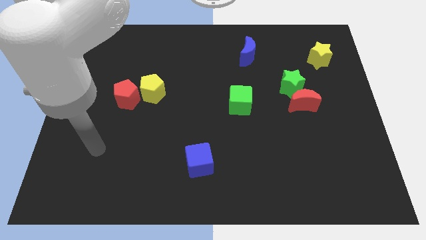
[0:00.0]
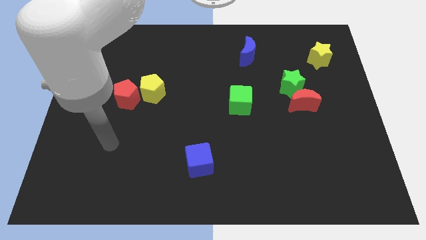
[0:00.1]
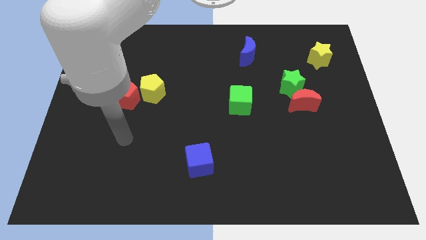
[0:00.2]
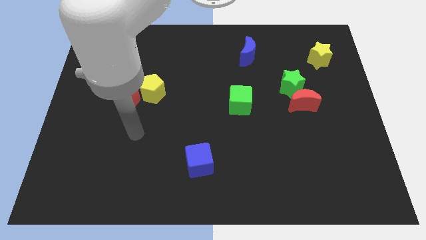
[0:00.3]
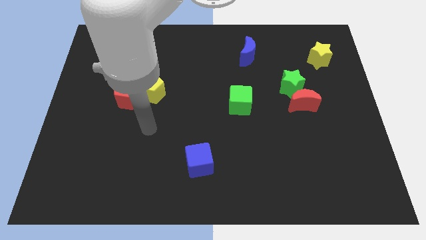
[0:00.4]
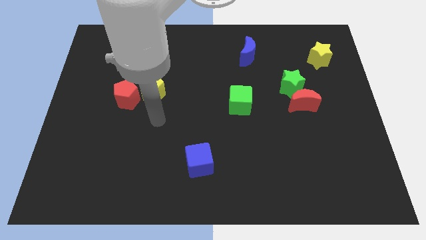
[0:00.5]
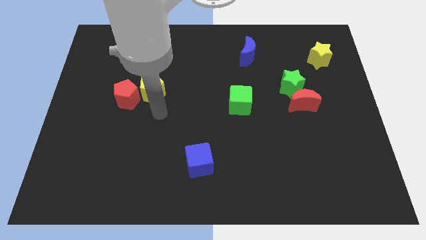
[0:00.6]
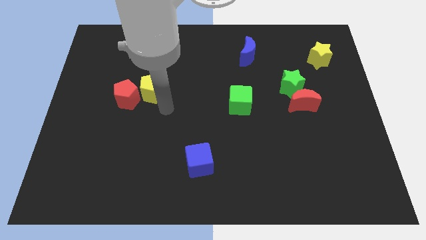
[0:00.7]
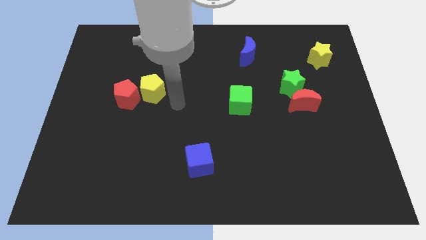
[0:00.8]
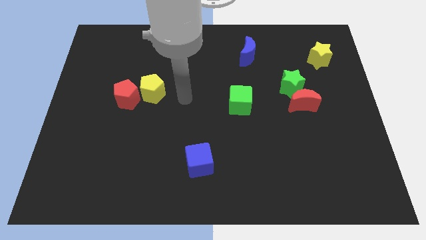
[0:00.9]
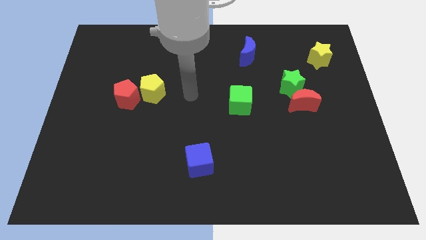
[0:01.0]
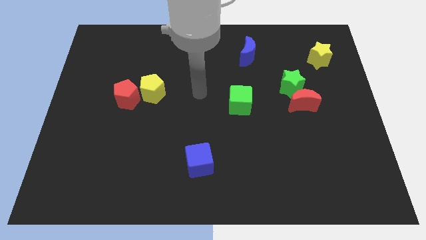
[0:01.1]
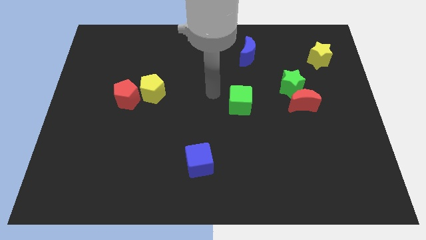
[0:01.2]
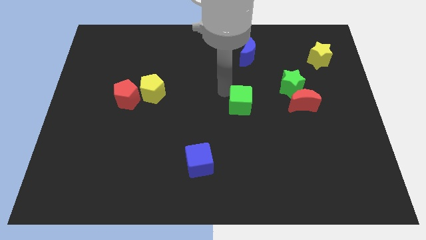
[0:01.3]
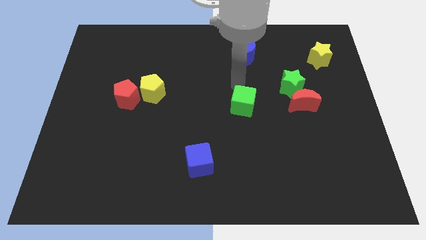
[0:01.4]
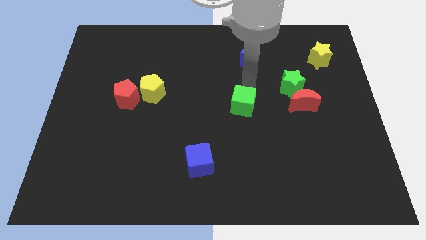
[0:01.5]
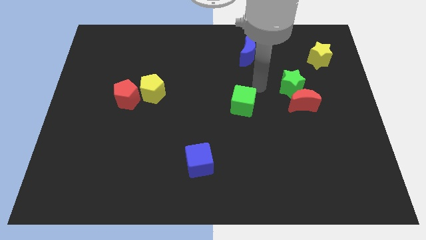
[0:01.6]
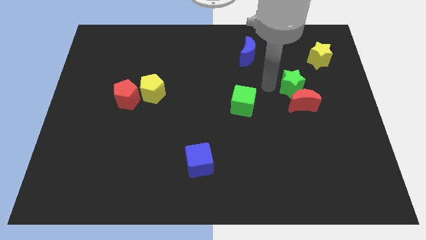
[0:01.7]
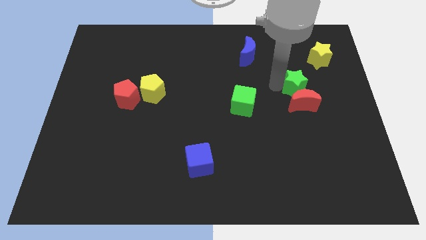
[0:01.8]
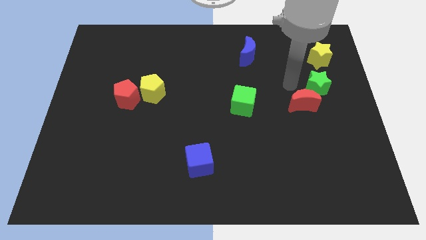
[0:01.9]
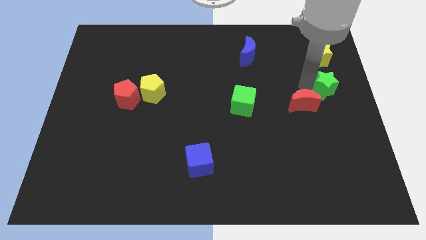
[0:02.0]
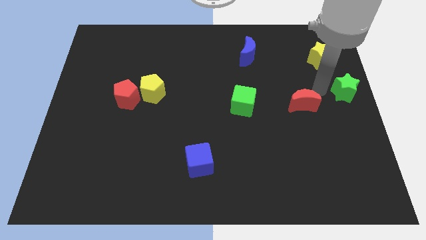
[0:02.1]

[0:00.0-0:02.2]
pull the red moon apart from the green star

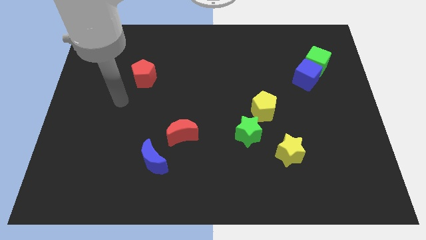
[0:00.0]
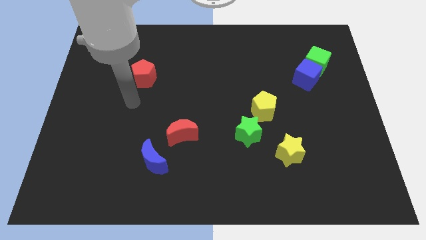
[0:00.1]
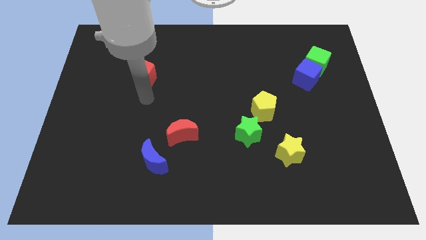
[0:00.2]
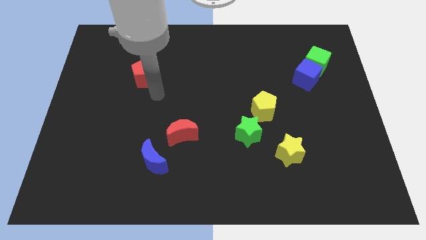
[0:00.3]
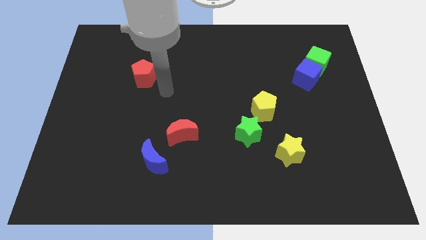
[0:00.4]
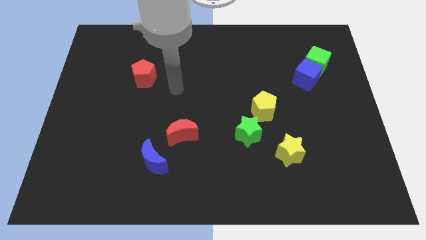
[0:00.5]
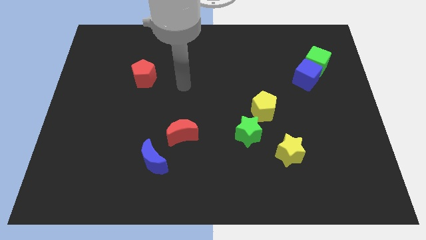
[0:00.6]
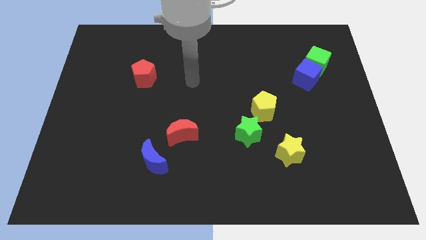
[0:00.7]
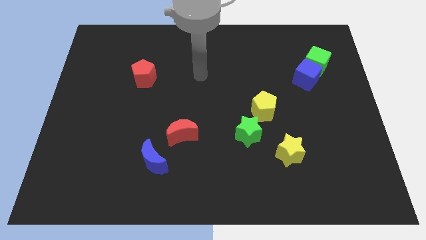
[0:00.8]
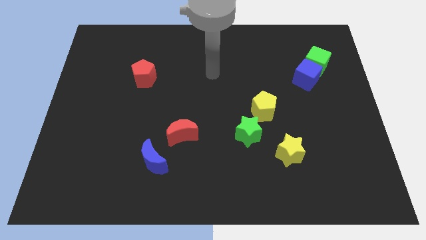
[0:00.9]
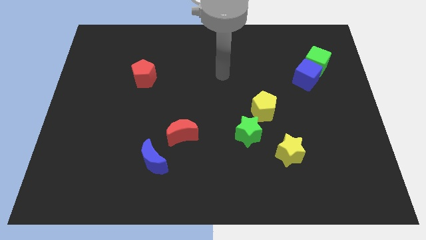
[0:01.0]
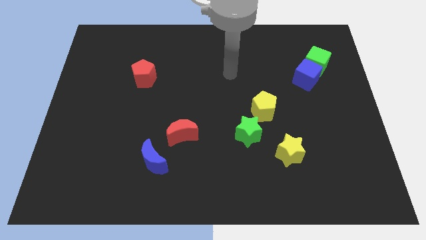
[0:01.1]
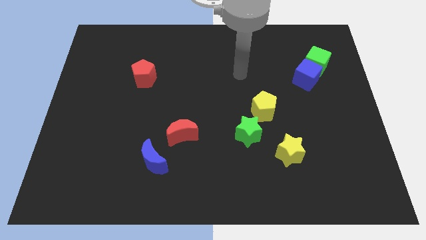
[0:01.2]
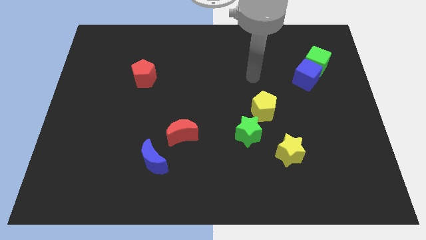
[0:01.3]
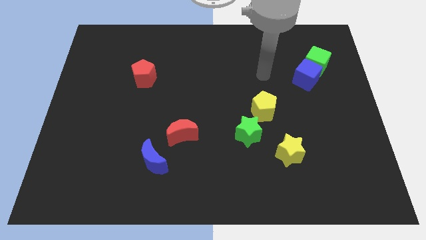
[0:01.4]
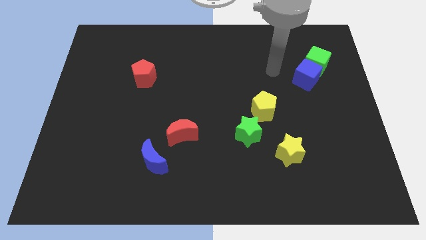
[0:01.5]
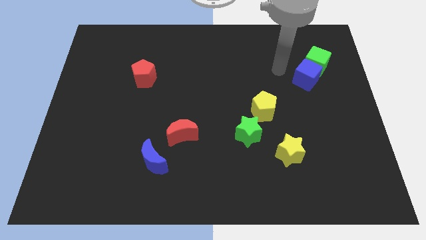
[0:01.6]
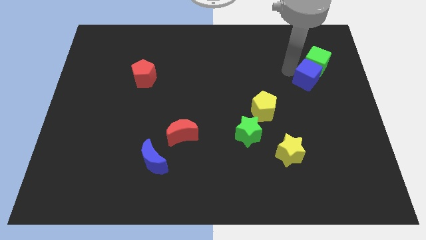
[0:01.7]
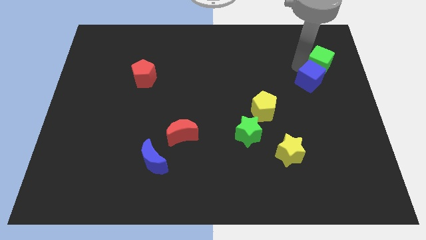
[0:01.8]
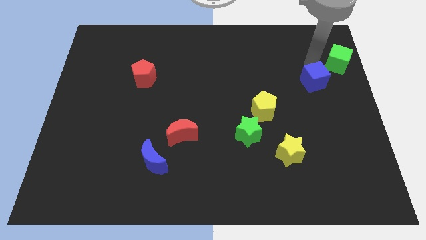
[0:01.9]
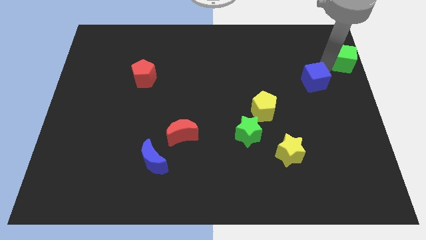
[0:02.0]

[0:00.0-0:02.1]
move the blue cube away from the green cube

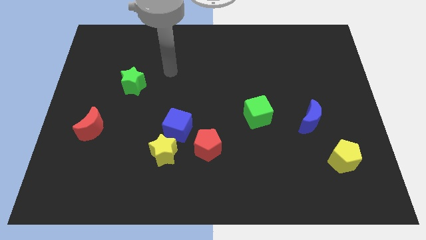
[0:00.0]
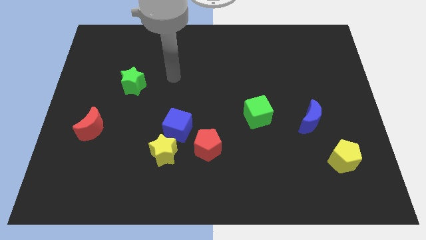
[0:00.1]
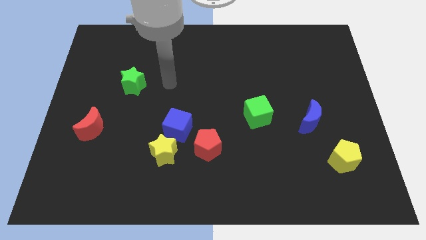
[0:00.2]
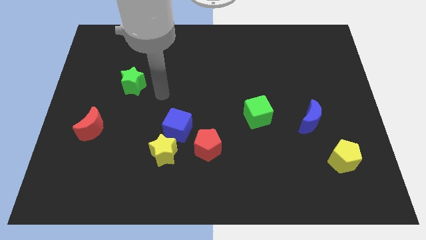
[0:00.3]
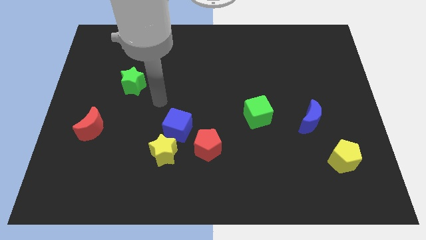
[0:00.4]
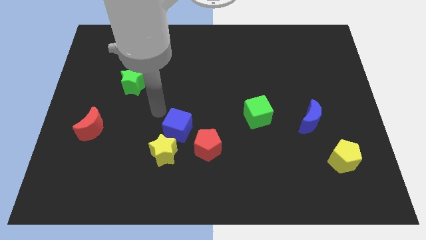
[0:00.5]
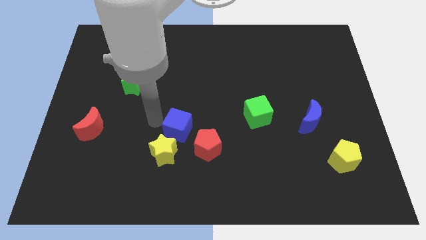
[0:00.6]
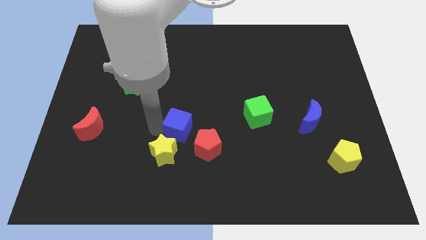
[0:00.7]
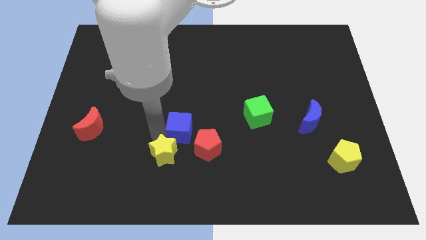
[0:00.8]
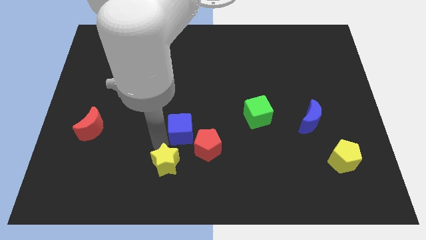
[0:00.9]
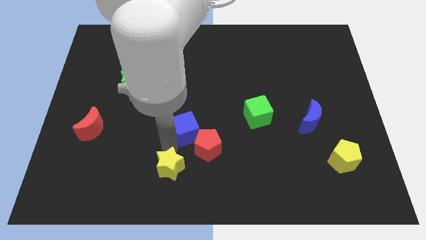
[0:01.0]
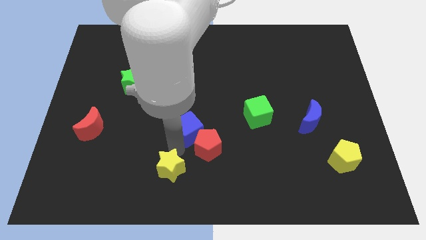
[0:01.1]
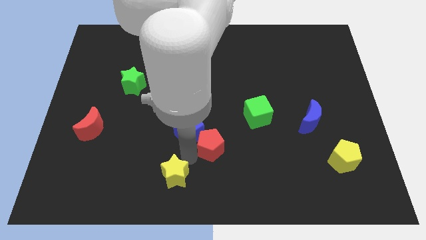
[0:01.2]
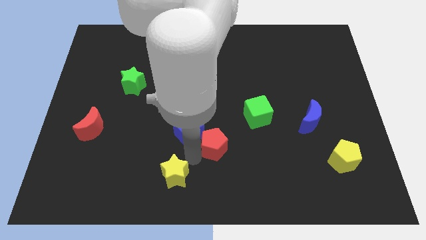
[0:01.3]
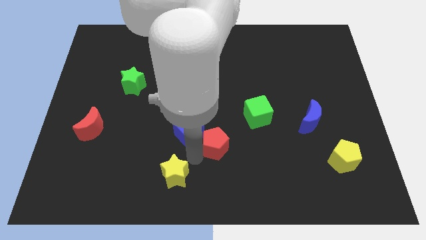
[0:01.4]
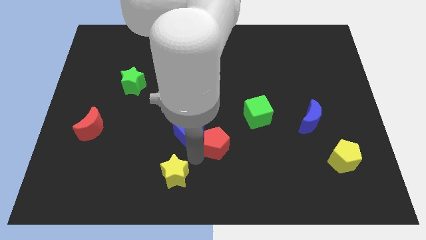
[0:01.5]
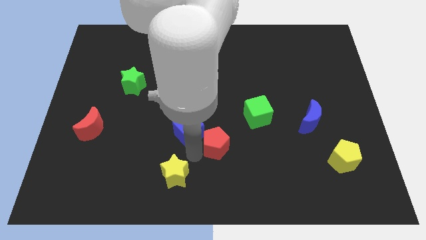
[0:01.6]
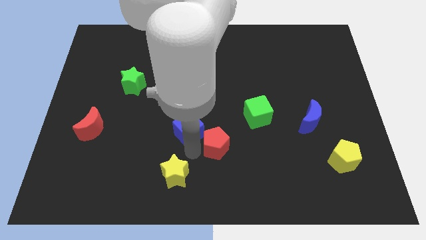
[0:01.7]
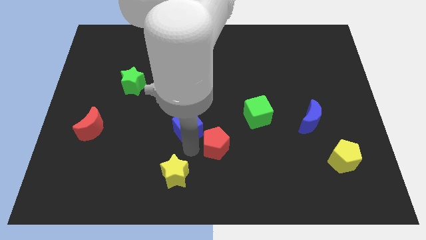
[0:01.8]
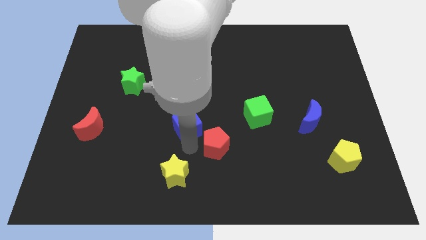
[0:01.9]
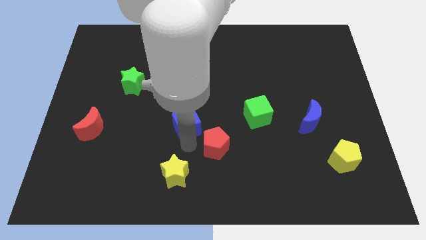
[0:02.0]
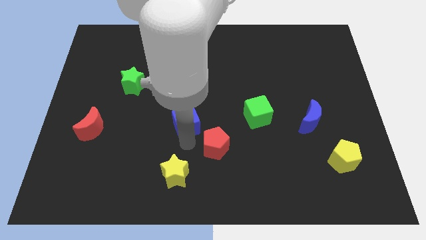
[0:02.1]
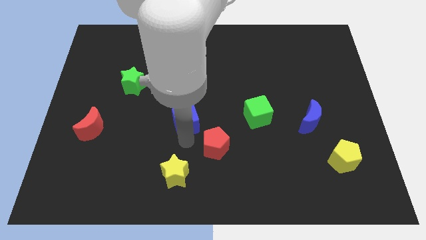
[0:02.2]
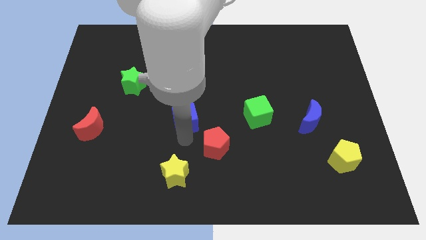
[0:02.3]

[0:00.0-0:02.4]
separate the blue cube from the yellow star and red pentagon

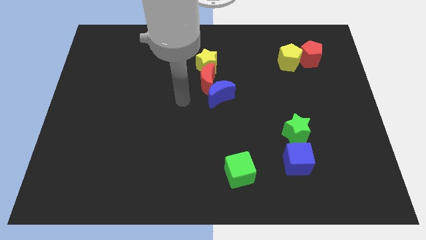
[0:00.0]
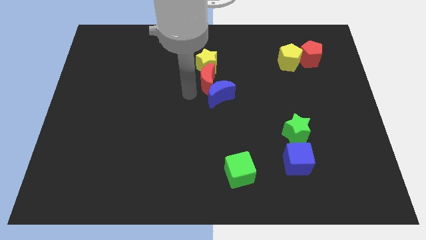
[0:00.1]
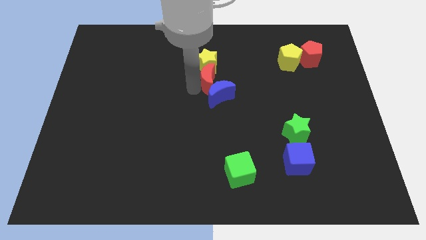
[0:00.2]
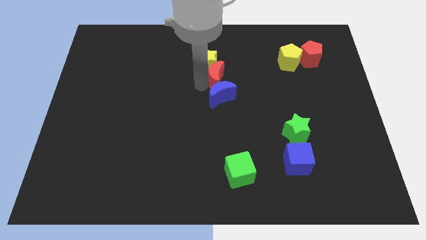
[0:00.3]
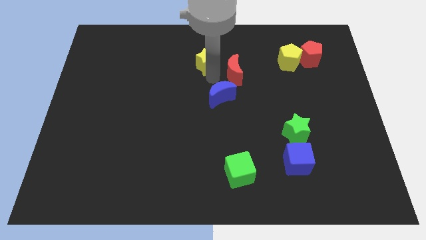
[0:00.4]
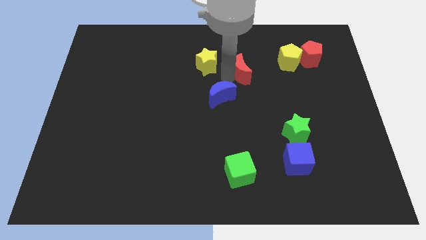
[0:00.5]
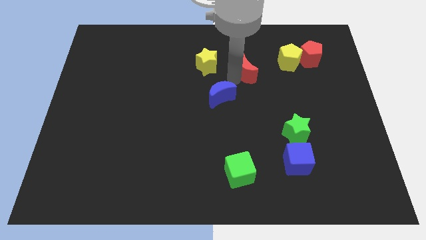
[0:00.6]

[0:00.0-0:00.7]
move the blue moon away from the red moon

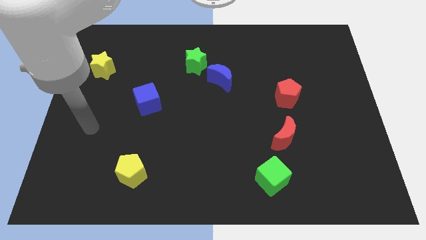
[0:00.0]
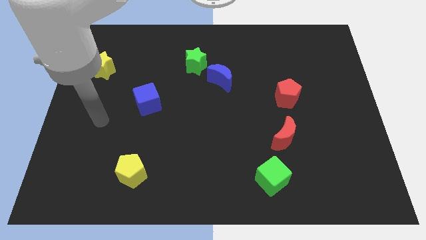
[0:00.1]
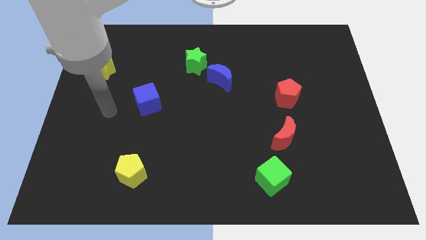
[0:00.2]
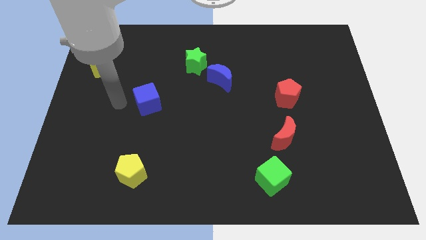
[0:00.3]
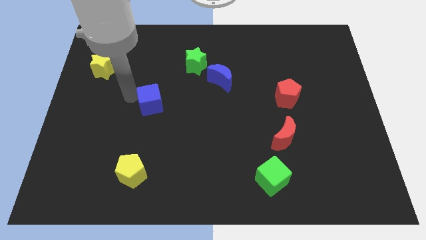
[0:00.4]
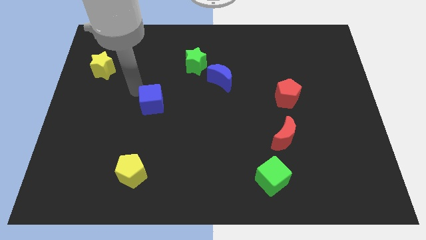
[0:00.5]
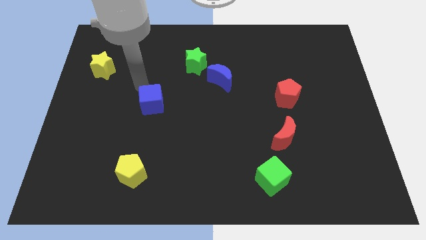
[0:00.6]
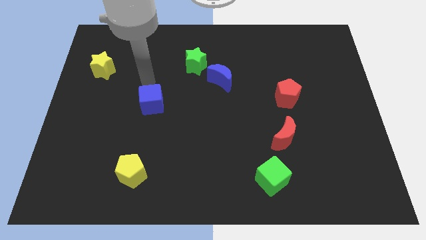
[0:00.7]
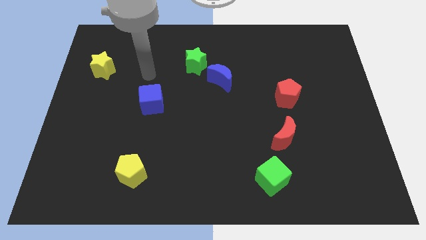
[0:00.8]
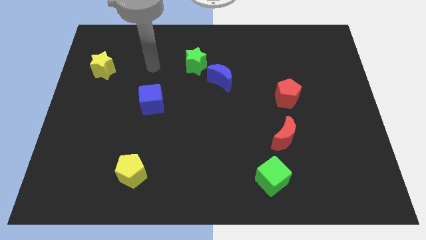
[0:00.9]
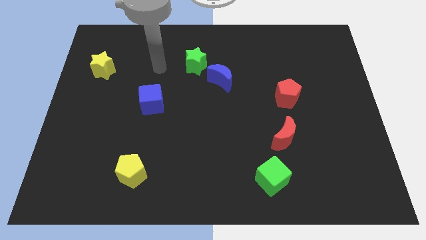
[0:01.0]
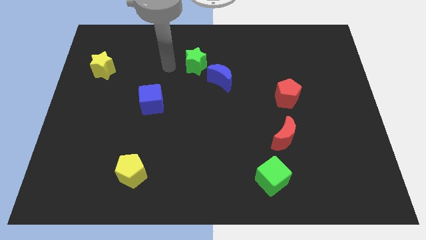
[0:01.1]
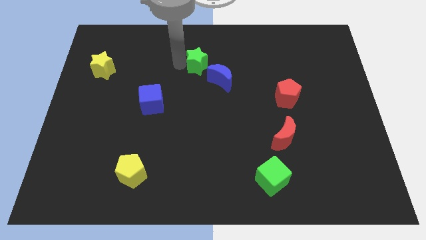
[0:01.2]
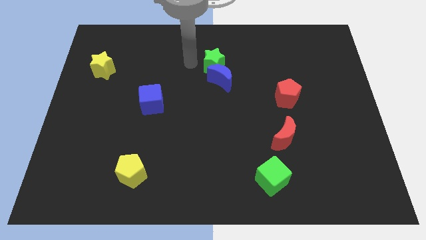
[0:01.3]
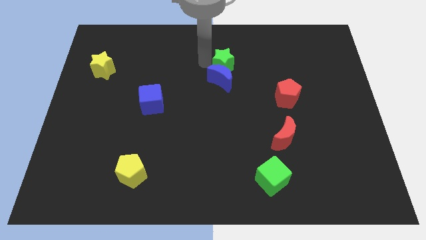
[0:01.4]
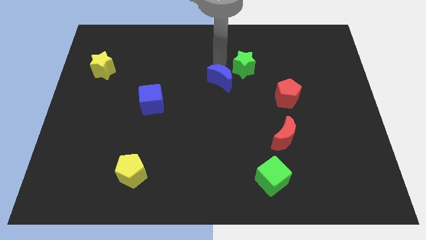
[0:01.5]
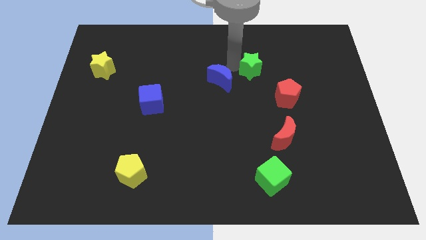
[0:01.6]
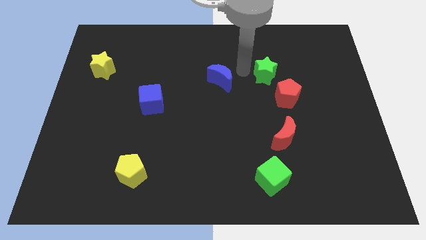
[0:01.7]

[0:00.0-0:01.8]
pull the blue moon apart from the green star

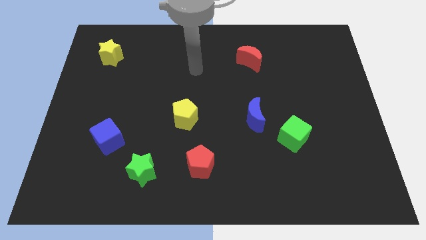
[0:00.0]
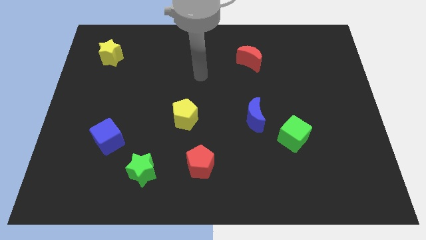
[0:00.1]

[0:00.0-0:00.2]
separate the blue moon from the green cube
